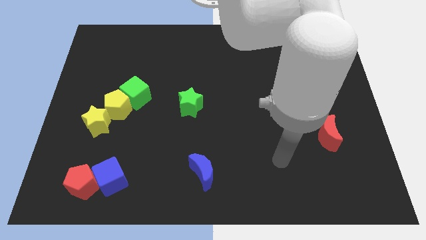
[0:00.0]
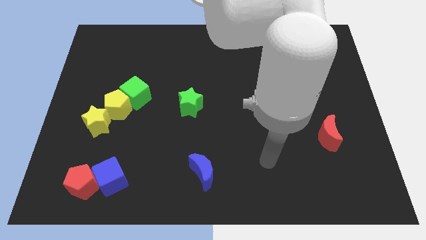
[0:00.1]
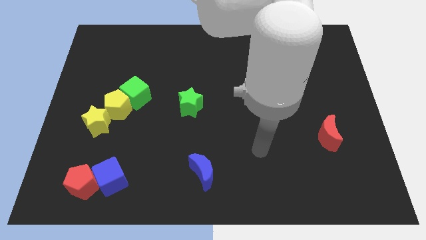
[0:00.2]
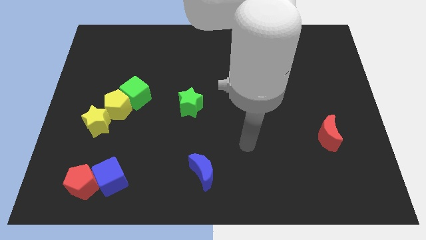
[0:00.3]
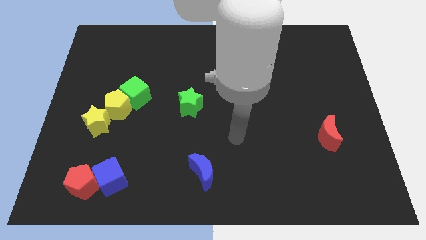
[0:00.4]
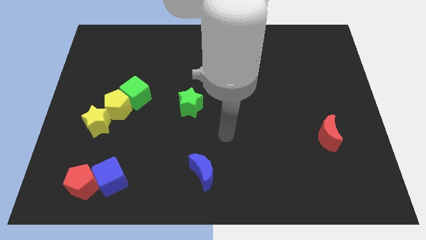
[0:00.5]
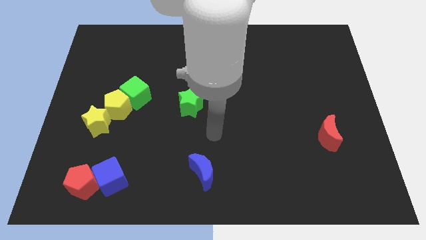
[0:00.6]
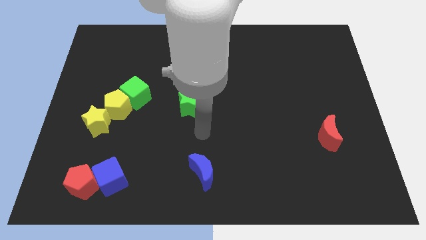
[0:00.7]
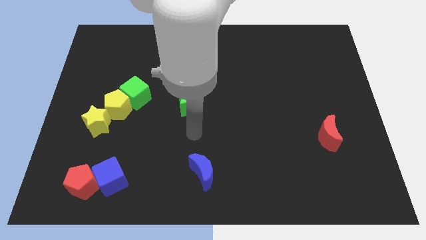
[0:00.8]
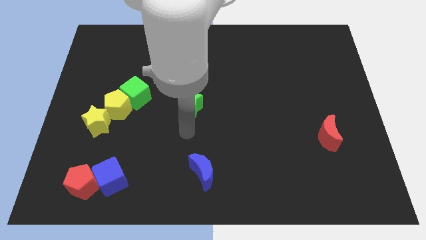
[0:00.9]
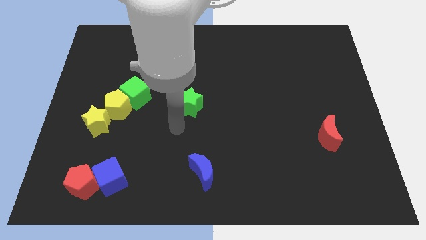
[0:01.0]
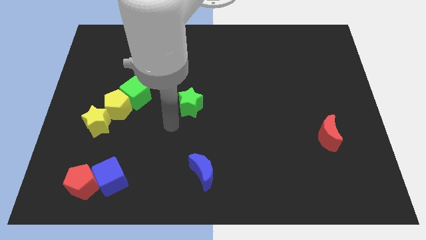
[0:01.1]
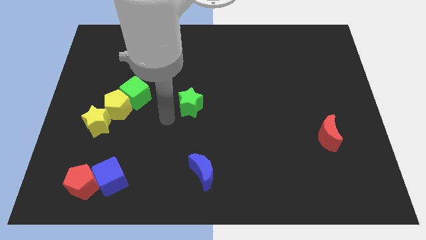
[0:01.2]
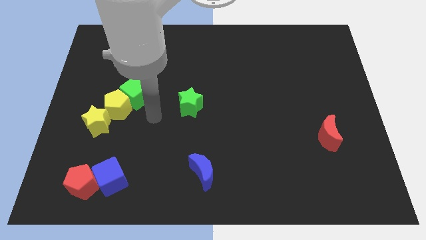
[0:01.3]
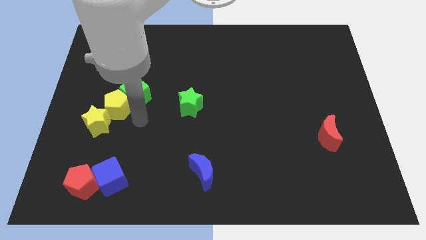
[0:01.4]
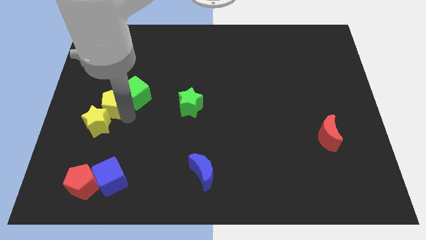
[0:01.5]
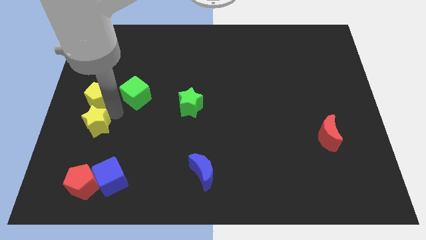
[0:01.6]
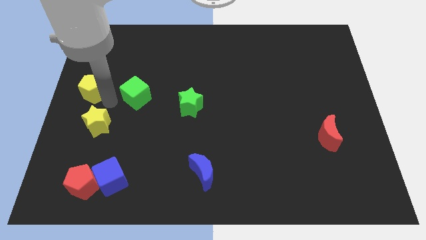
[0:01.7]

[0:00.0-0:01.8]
pull the green cube apart from the yellow pentagon

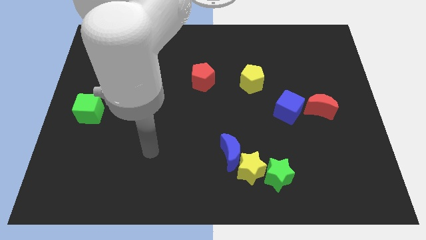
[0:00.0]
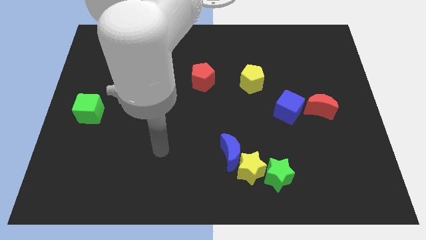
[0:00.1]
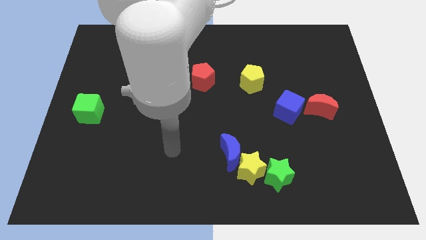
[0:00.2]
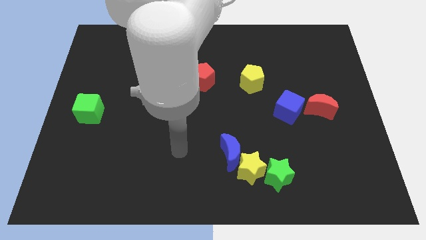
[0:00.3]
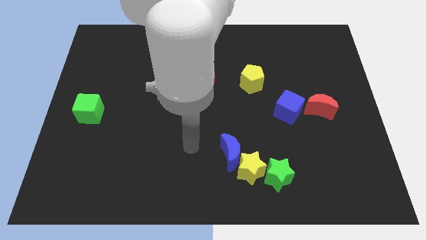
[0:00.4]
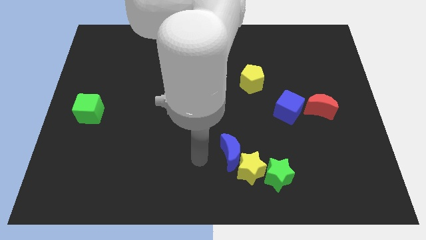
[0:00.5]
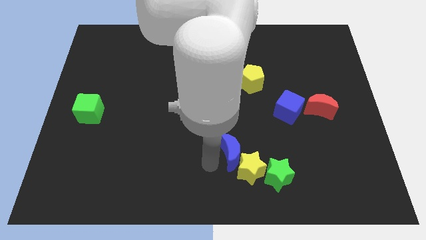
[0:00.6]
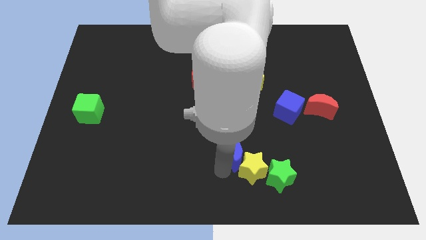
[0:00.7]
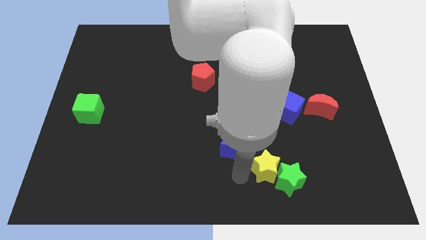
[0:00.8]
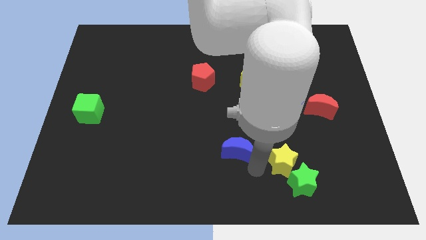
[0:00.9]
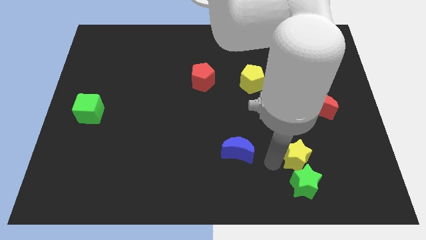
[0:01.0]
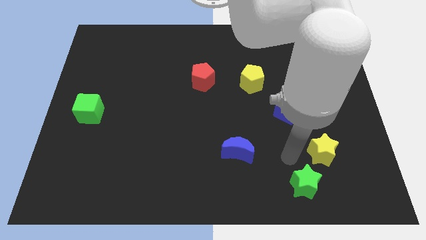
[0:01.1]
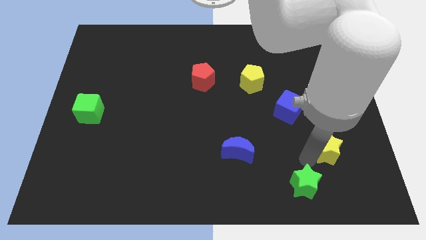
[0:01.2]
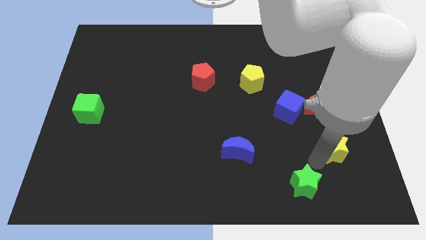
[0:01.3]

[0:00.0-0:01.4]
separate the green star from the yellow star

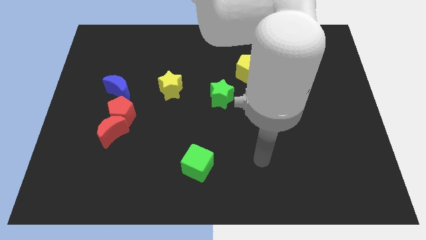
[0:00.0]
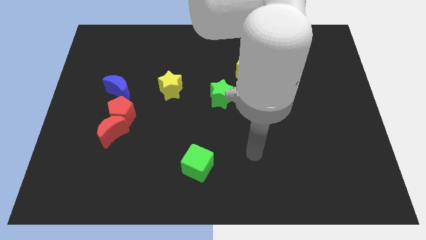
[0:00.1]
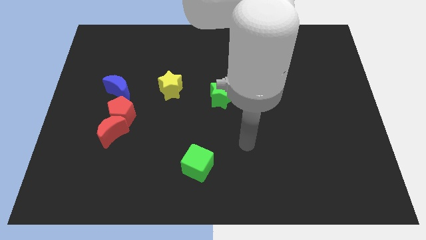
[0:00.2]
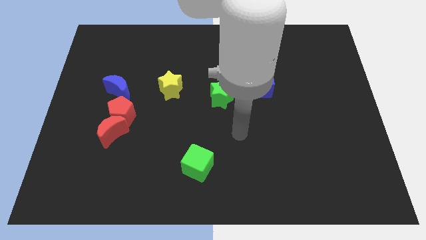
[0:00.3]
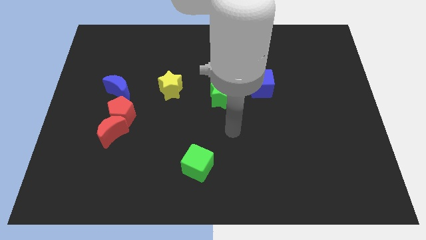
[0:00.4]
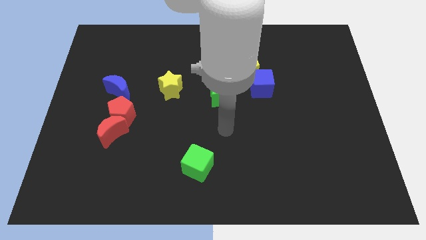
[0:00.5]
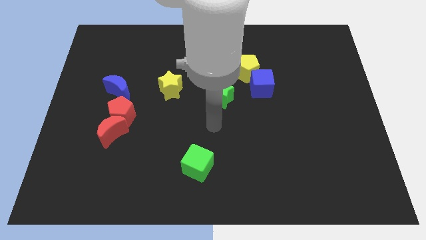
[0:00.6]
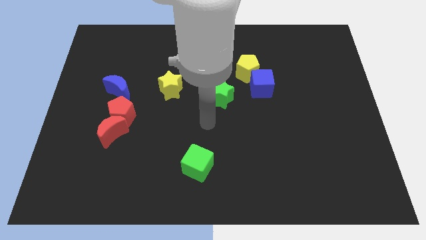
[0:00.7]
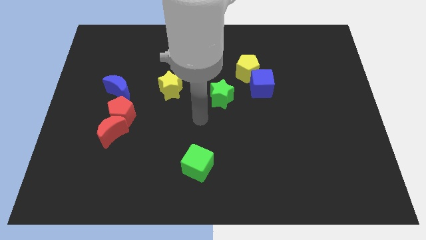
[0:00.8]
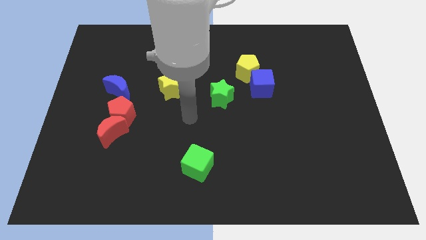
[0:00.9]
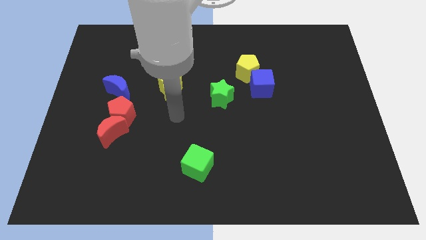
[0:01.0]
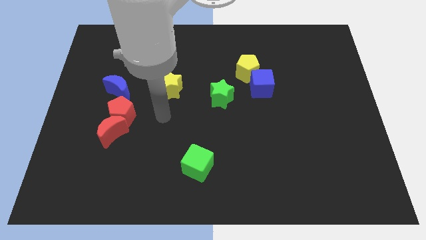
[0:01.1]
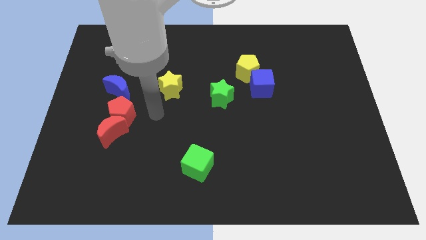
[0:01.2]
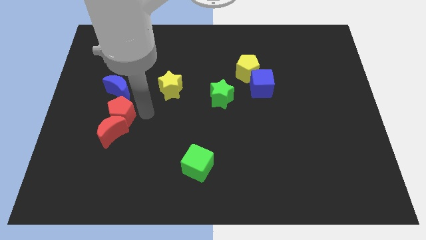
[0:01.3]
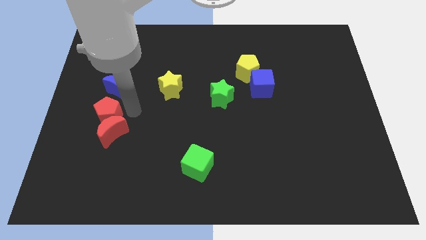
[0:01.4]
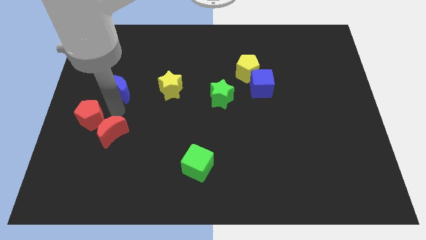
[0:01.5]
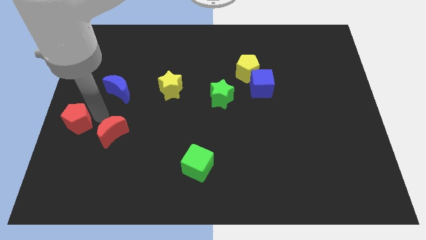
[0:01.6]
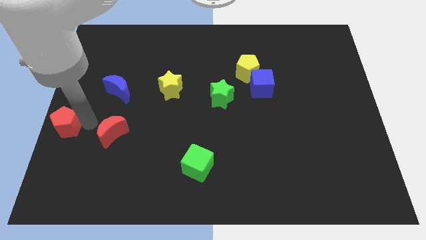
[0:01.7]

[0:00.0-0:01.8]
pull the red moon apart from the red pentagon

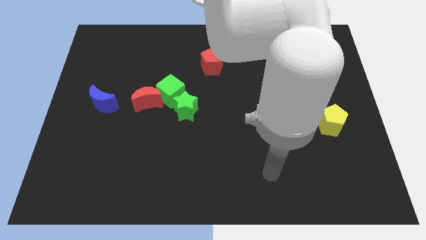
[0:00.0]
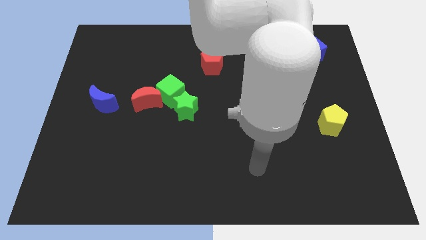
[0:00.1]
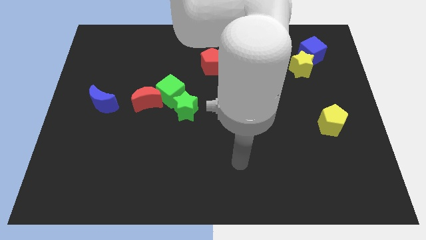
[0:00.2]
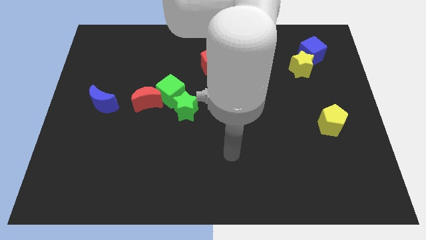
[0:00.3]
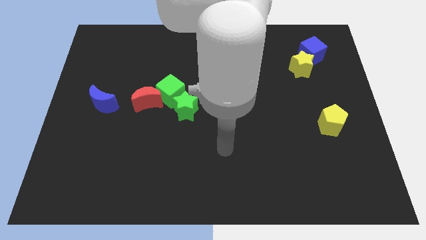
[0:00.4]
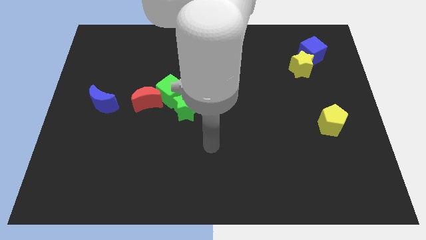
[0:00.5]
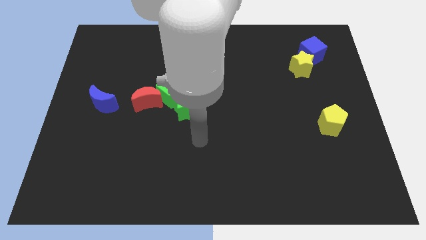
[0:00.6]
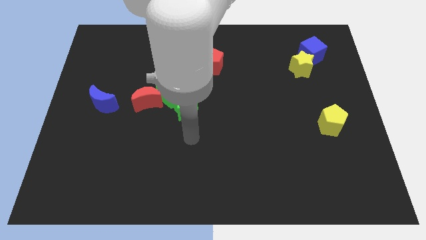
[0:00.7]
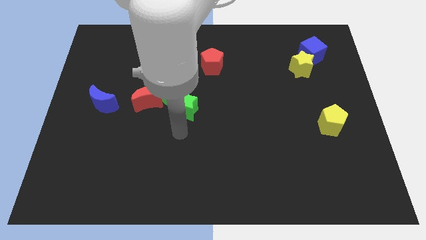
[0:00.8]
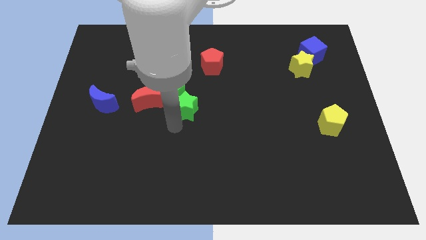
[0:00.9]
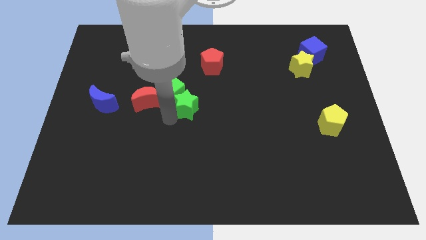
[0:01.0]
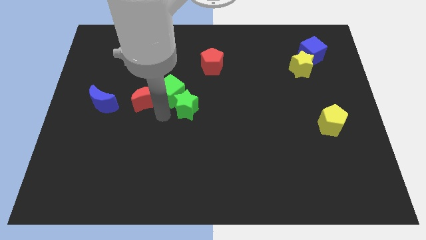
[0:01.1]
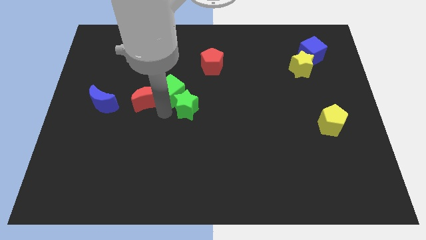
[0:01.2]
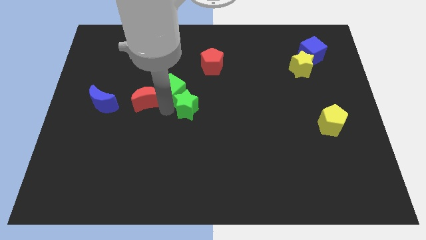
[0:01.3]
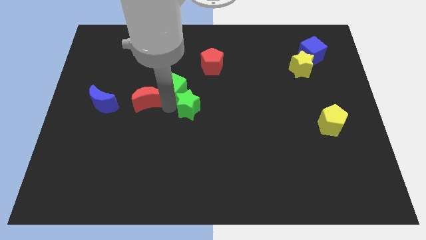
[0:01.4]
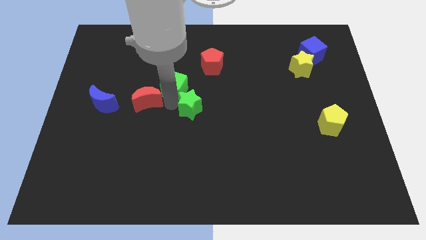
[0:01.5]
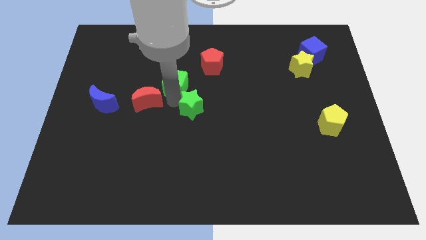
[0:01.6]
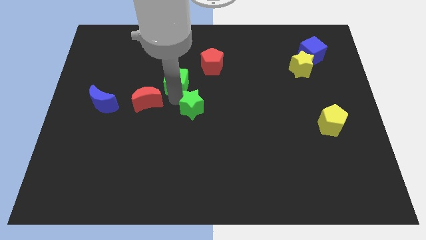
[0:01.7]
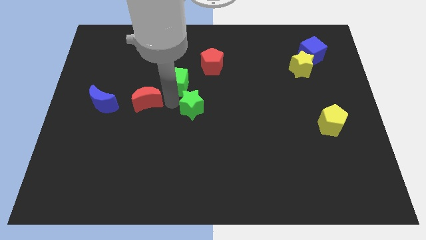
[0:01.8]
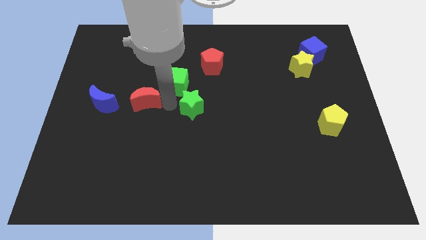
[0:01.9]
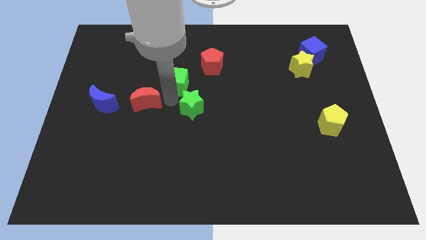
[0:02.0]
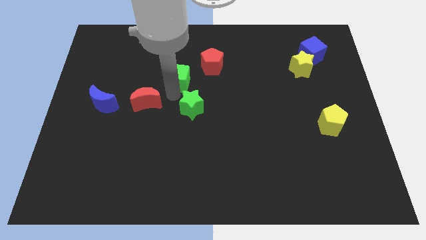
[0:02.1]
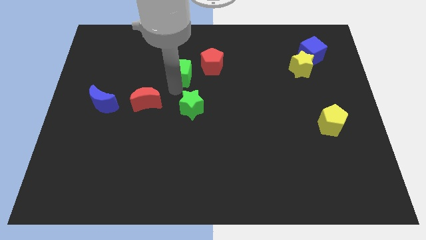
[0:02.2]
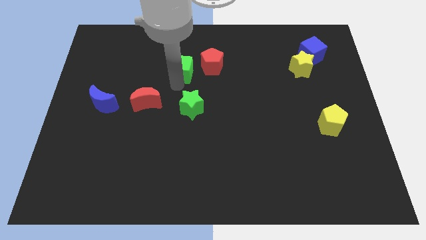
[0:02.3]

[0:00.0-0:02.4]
move the green cube away from the red moon and green star

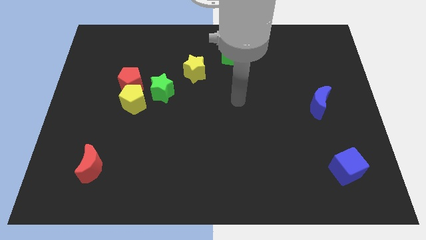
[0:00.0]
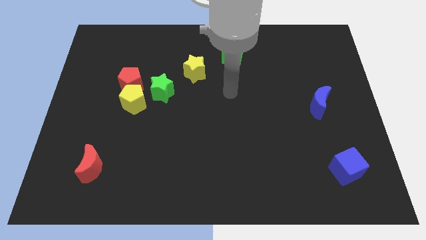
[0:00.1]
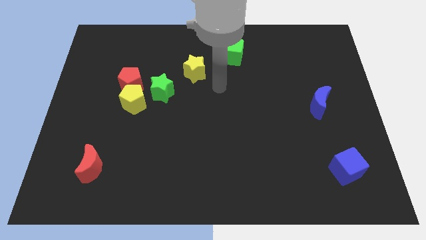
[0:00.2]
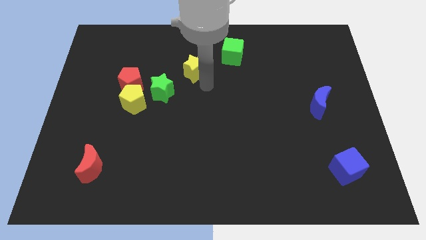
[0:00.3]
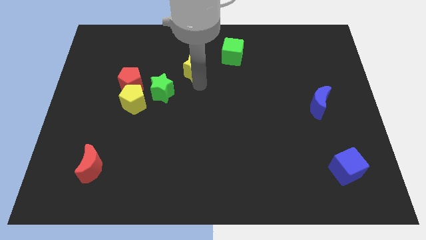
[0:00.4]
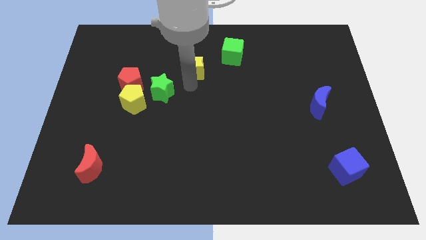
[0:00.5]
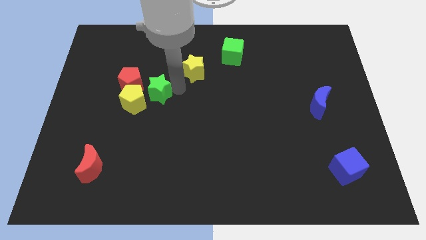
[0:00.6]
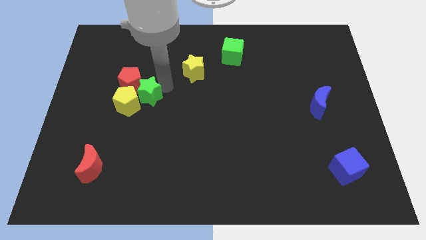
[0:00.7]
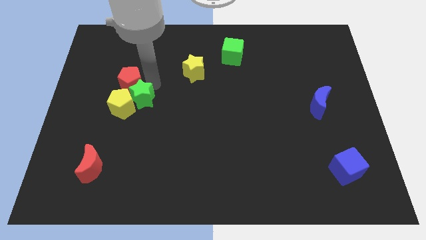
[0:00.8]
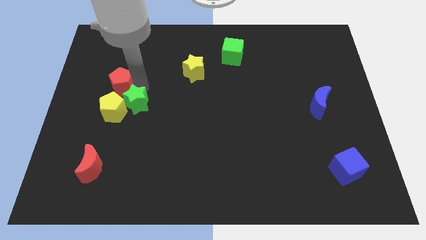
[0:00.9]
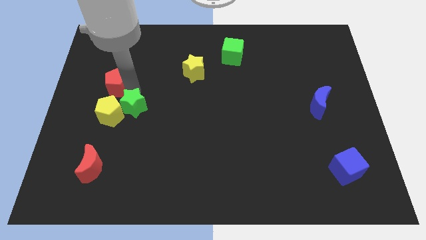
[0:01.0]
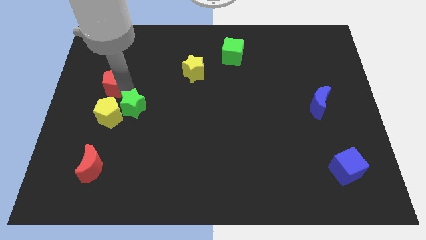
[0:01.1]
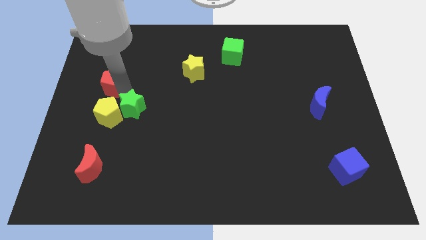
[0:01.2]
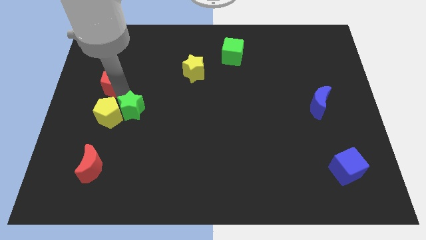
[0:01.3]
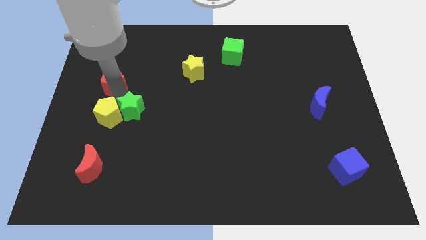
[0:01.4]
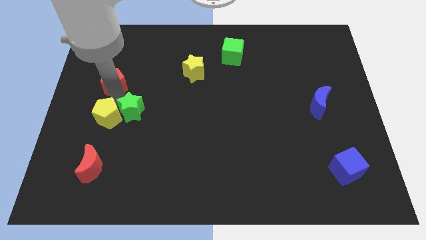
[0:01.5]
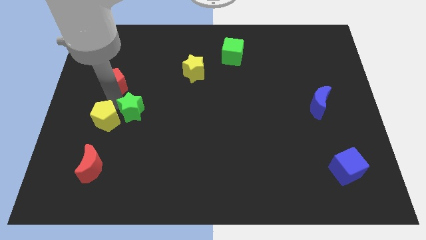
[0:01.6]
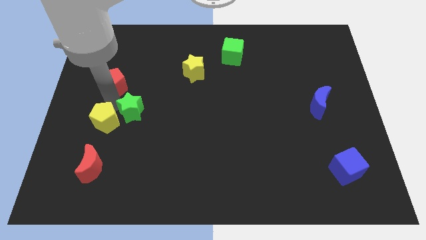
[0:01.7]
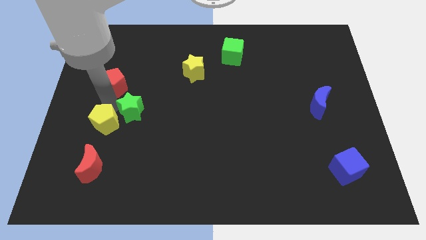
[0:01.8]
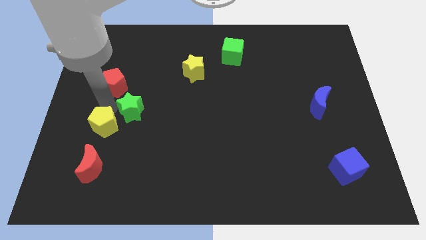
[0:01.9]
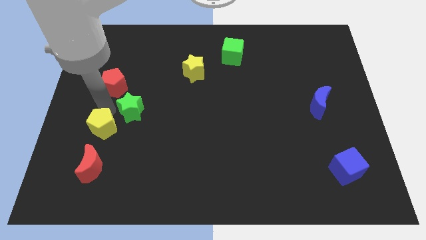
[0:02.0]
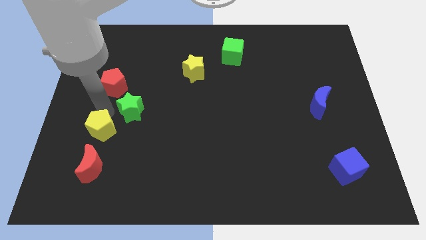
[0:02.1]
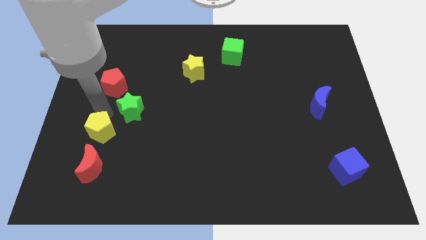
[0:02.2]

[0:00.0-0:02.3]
pull the yellow pentagon apart from the red pentagon and green star
